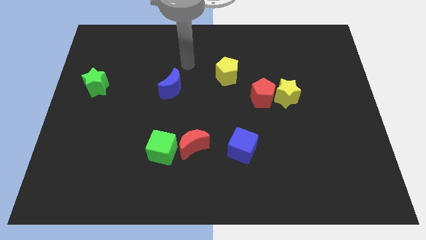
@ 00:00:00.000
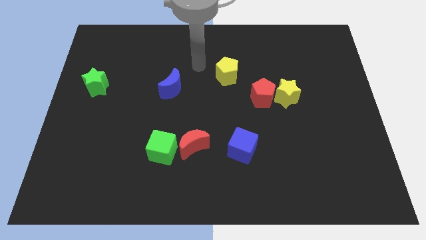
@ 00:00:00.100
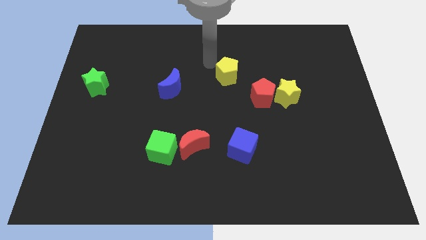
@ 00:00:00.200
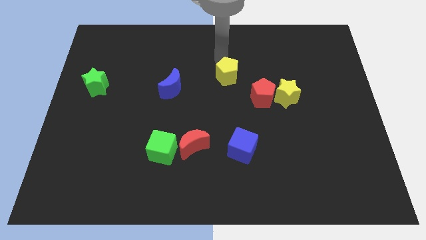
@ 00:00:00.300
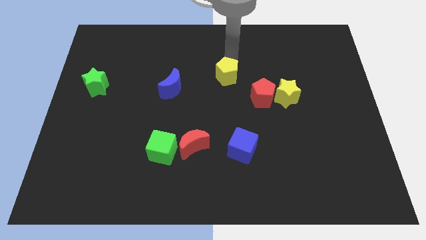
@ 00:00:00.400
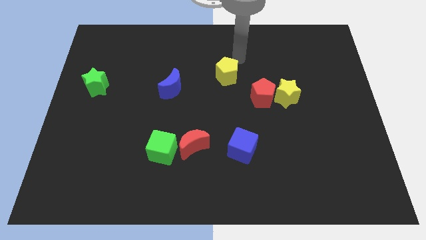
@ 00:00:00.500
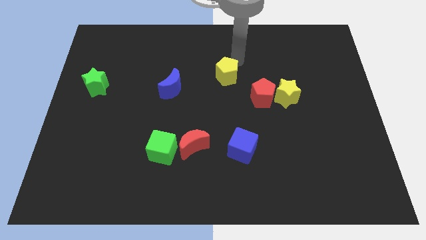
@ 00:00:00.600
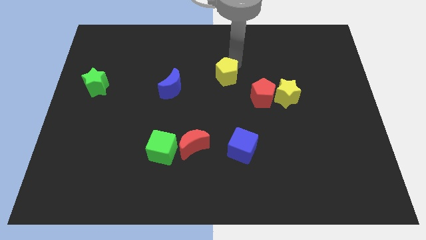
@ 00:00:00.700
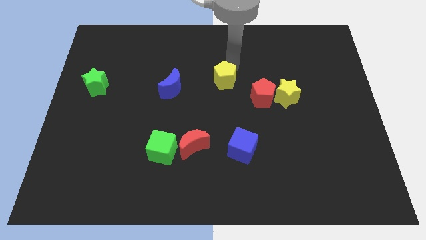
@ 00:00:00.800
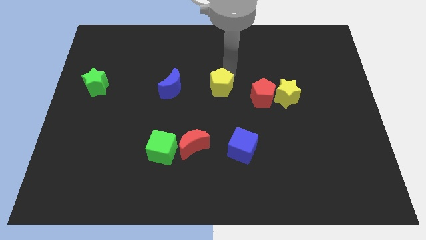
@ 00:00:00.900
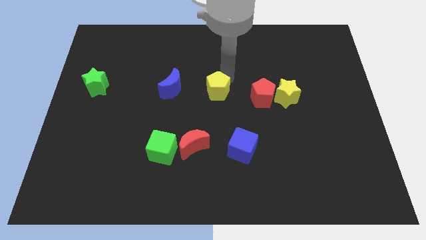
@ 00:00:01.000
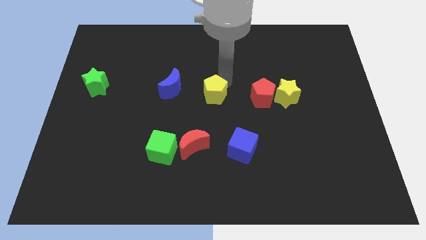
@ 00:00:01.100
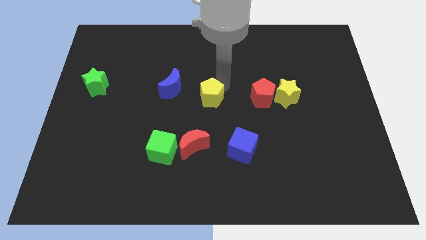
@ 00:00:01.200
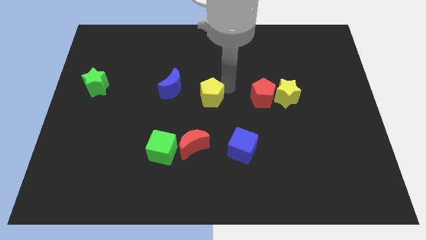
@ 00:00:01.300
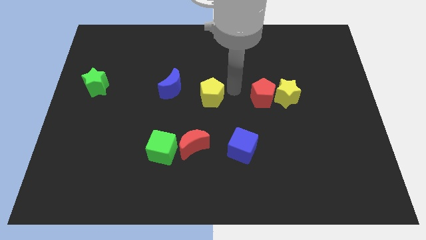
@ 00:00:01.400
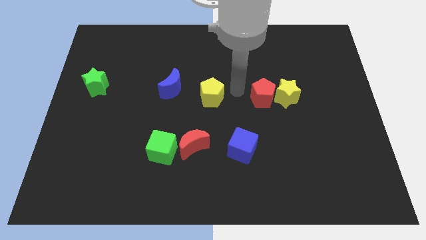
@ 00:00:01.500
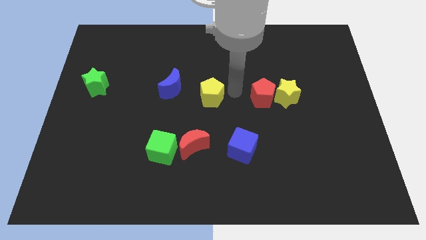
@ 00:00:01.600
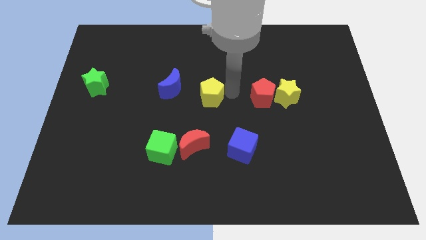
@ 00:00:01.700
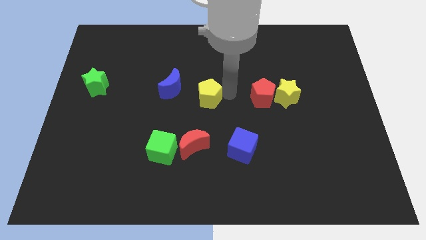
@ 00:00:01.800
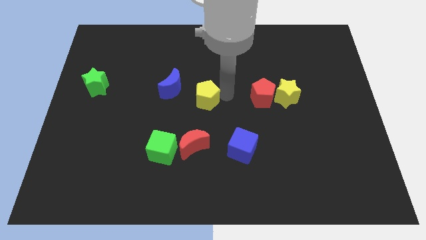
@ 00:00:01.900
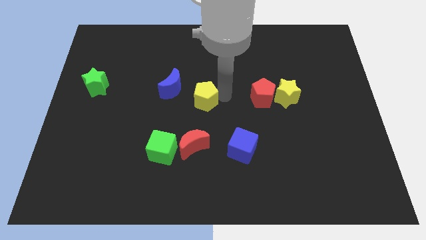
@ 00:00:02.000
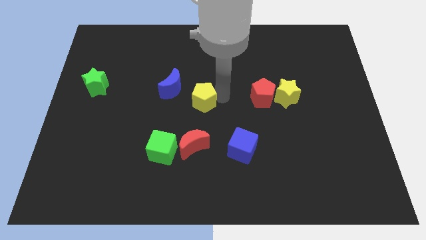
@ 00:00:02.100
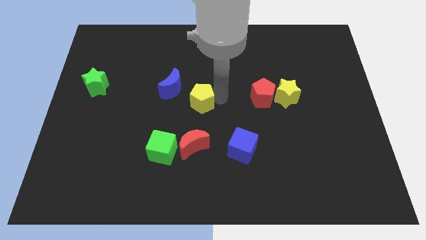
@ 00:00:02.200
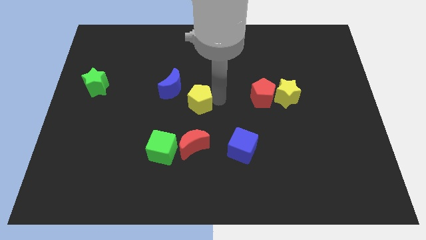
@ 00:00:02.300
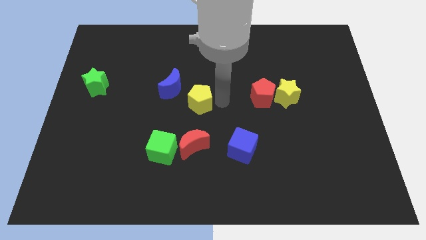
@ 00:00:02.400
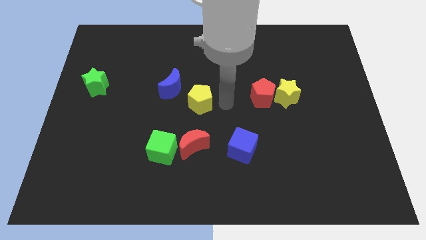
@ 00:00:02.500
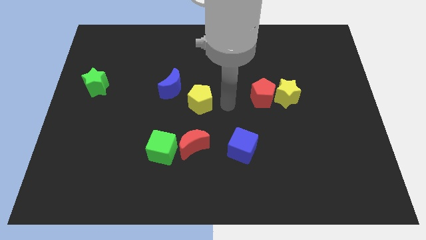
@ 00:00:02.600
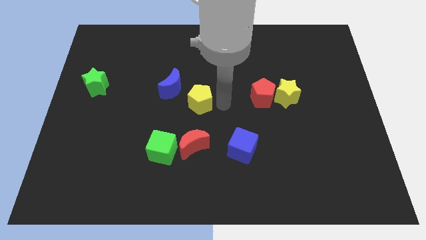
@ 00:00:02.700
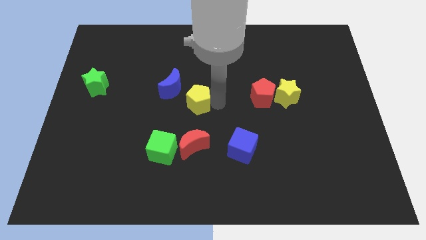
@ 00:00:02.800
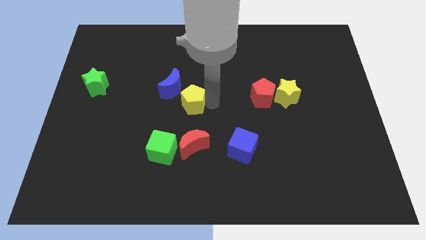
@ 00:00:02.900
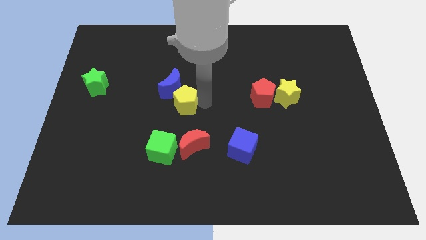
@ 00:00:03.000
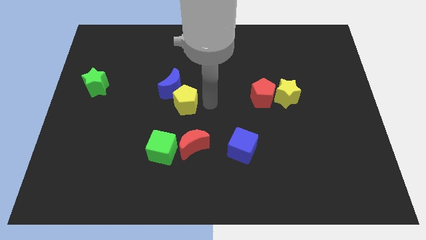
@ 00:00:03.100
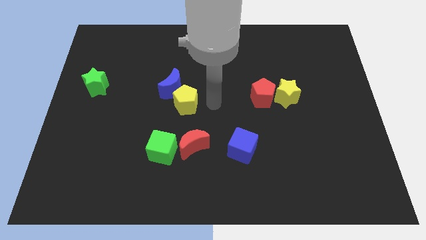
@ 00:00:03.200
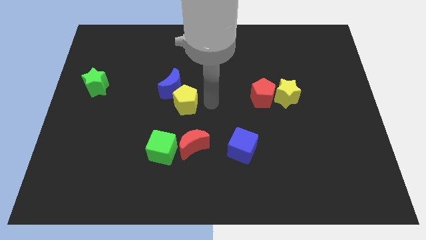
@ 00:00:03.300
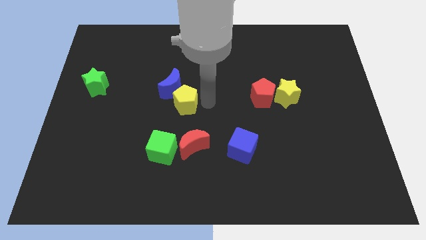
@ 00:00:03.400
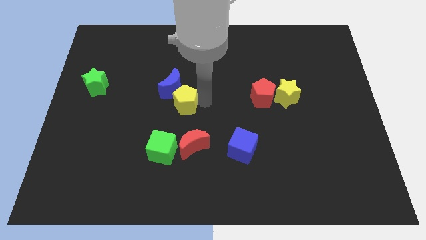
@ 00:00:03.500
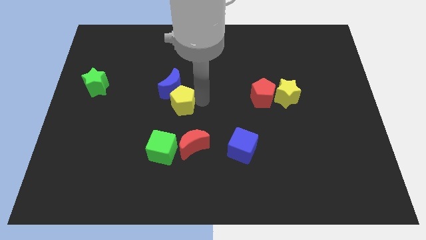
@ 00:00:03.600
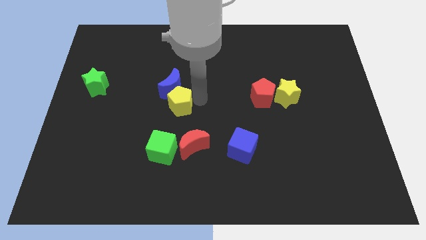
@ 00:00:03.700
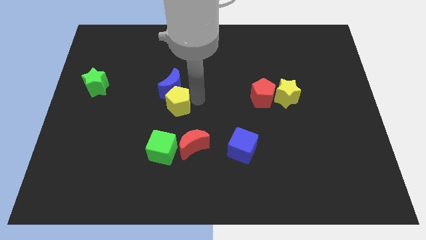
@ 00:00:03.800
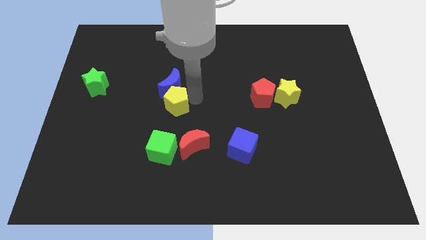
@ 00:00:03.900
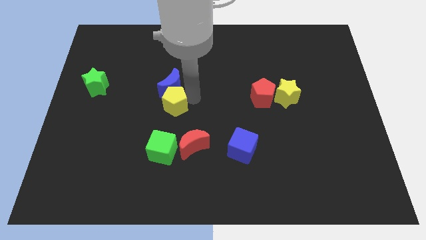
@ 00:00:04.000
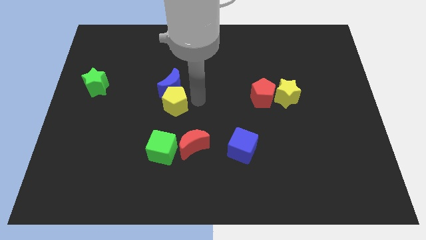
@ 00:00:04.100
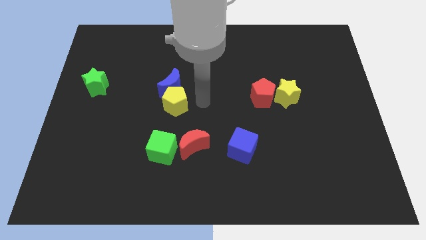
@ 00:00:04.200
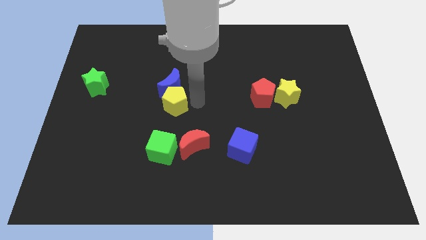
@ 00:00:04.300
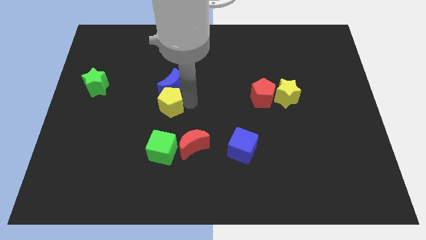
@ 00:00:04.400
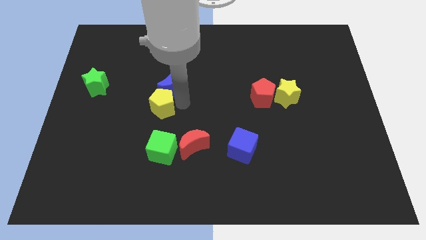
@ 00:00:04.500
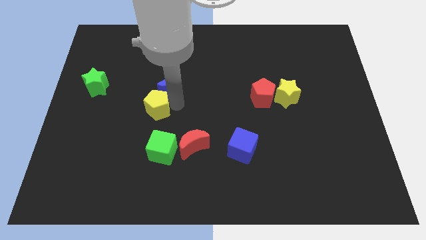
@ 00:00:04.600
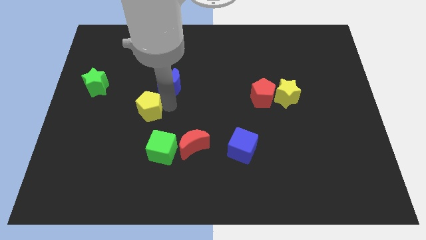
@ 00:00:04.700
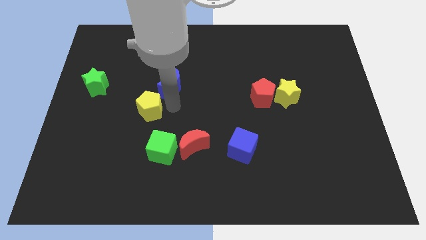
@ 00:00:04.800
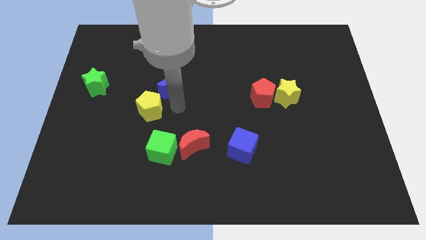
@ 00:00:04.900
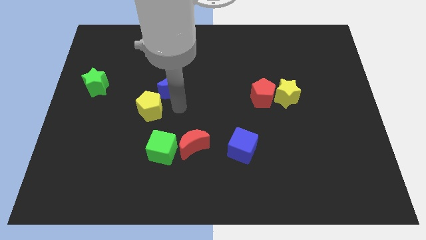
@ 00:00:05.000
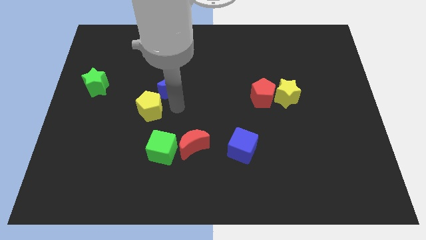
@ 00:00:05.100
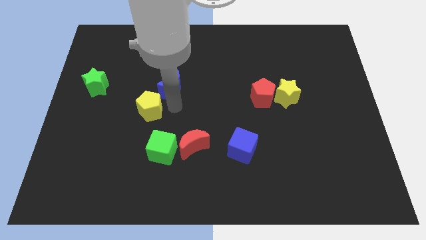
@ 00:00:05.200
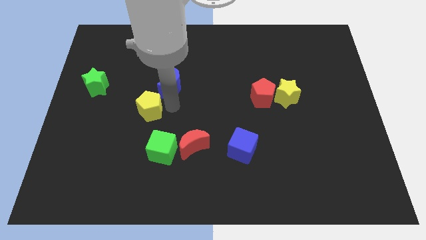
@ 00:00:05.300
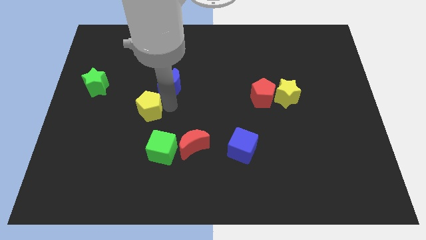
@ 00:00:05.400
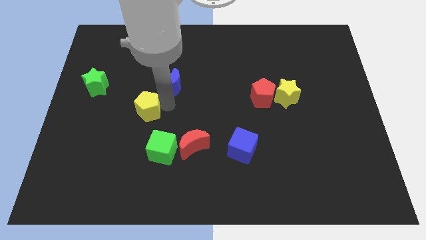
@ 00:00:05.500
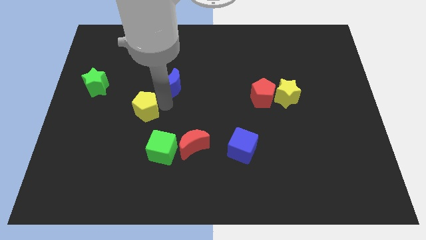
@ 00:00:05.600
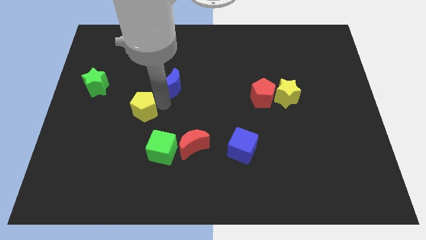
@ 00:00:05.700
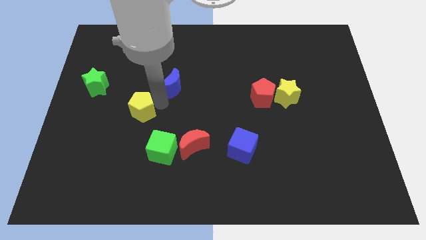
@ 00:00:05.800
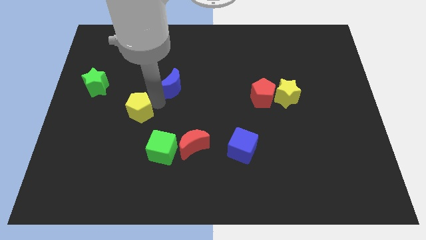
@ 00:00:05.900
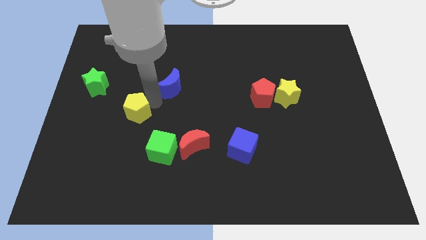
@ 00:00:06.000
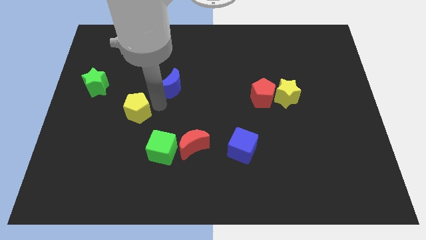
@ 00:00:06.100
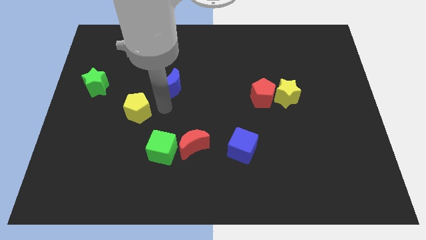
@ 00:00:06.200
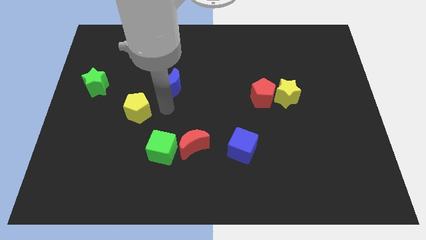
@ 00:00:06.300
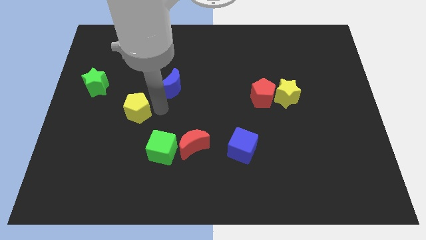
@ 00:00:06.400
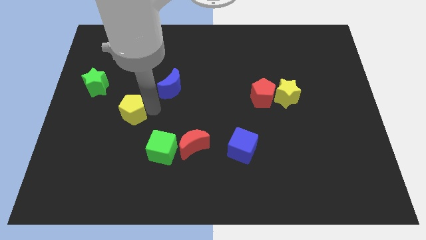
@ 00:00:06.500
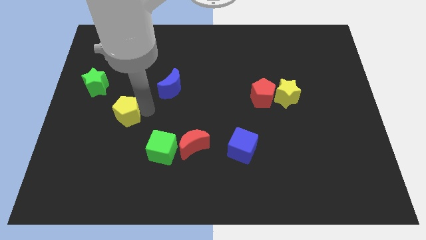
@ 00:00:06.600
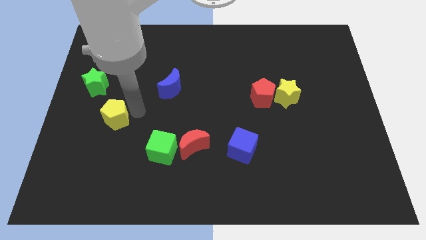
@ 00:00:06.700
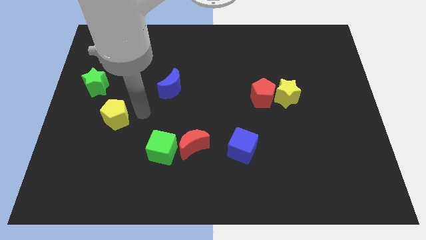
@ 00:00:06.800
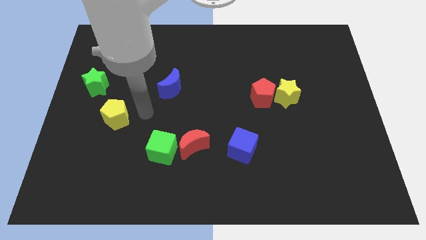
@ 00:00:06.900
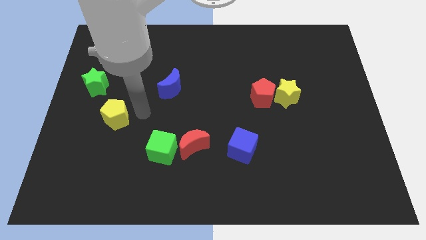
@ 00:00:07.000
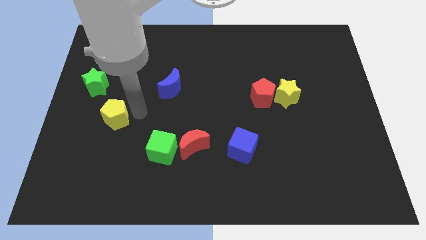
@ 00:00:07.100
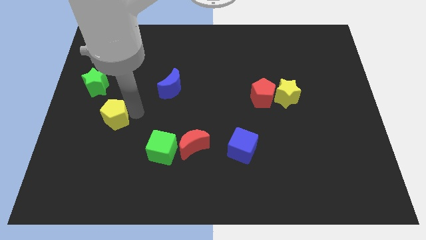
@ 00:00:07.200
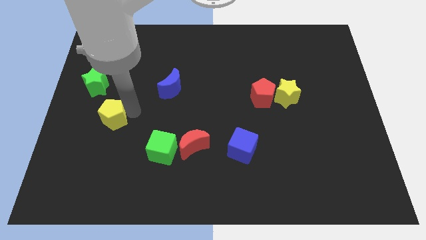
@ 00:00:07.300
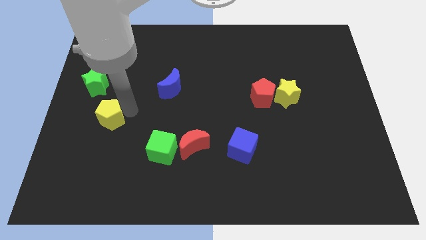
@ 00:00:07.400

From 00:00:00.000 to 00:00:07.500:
move the yellow pentagon to the bottom of the green star
